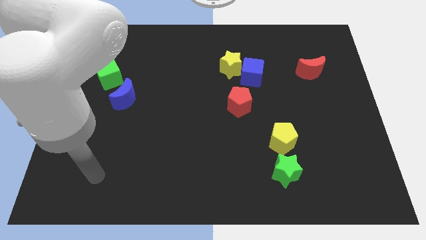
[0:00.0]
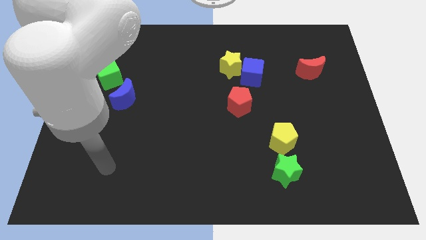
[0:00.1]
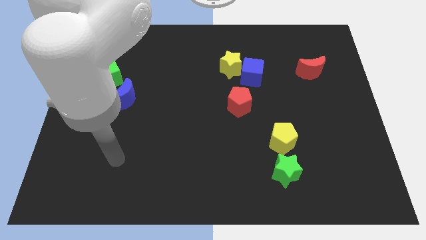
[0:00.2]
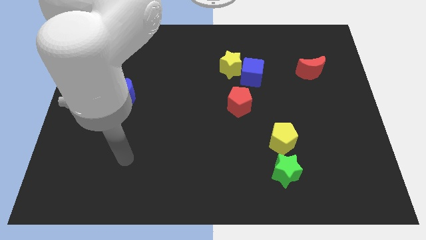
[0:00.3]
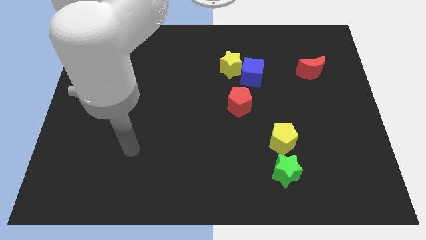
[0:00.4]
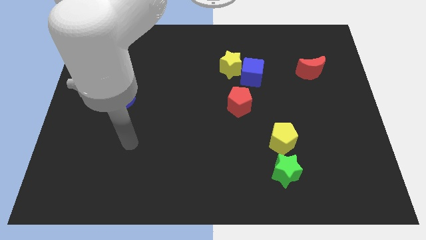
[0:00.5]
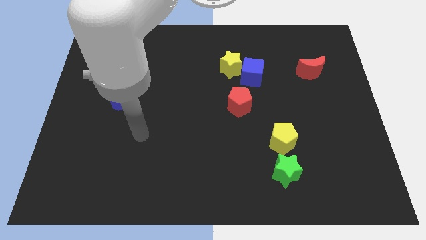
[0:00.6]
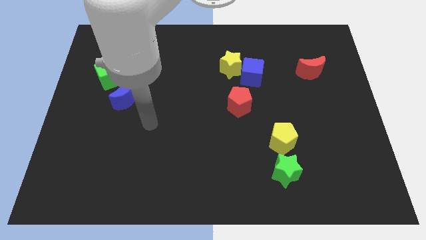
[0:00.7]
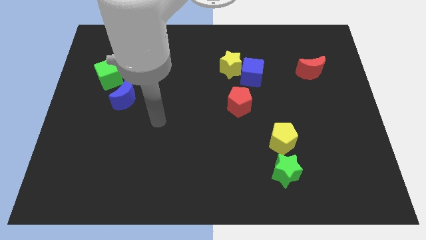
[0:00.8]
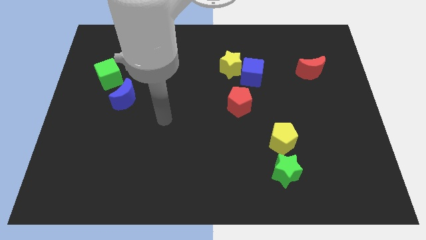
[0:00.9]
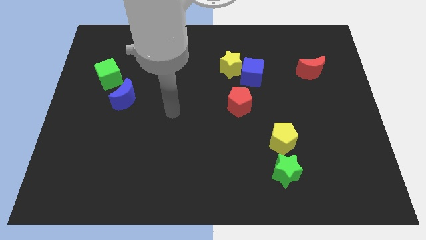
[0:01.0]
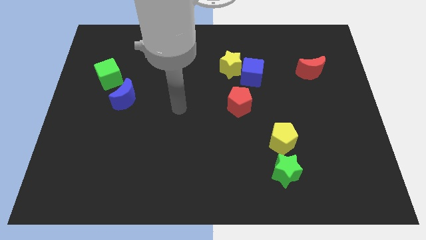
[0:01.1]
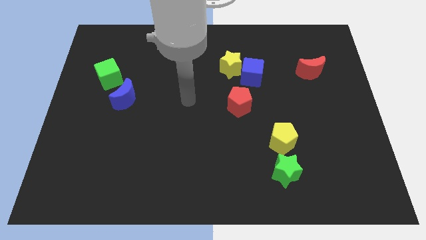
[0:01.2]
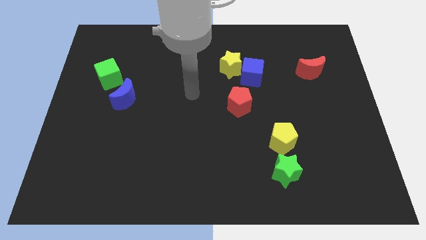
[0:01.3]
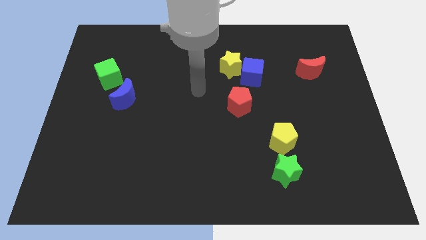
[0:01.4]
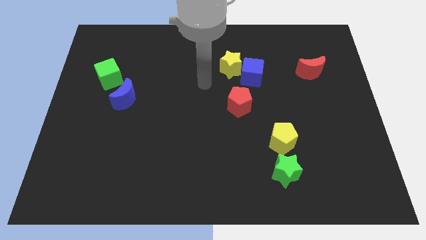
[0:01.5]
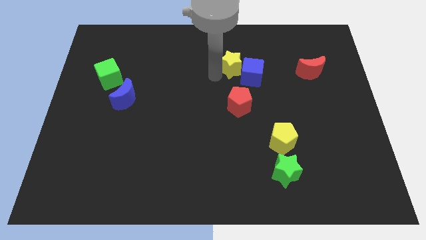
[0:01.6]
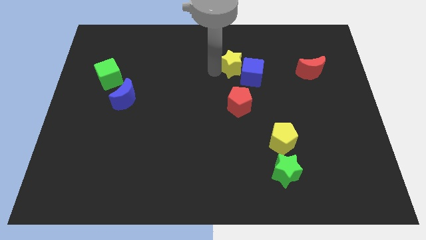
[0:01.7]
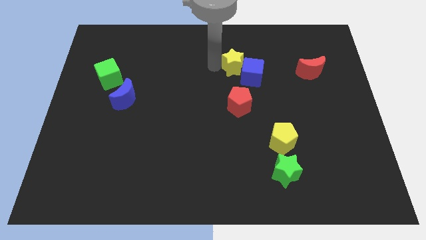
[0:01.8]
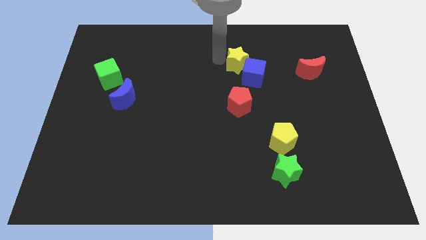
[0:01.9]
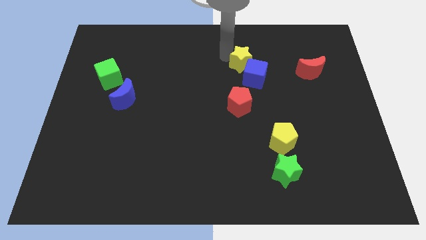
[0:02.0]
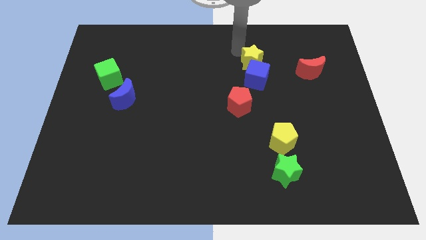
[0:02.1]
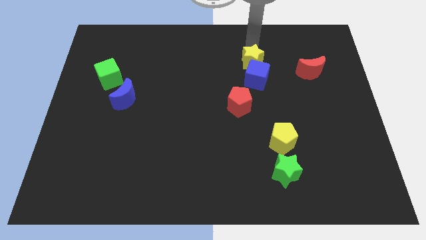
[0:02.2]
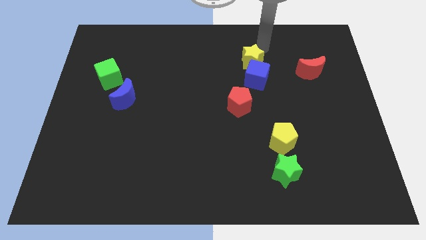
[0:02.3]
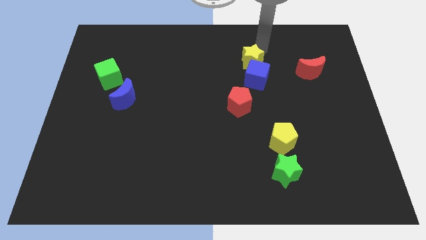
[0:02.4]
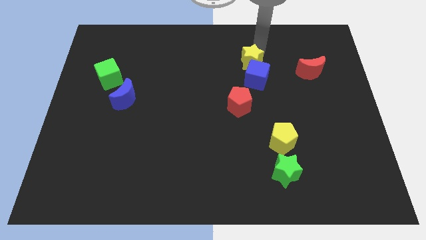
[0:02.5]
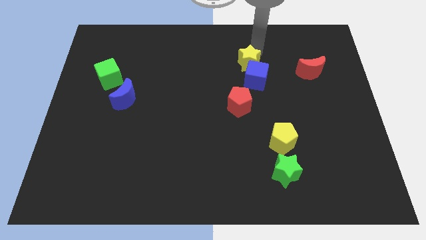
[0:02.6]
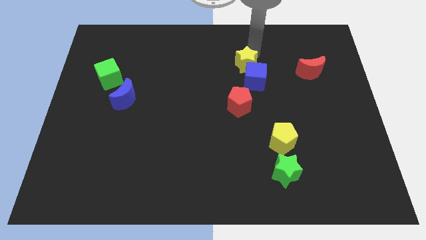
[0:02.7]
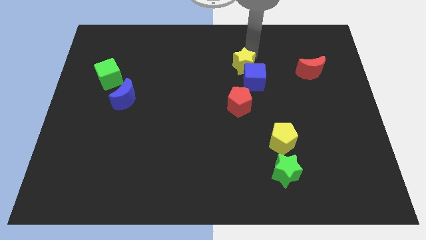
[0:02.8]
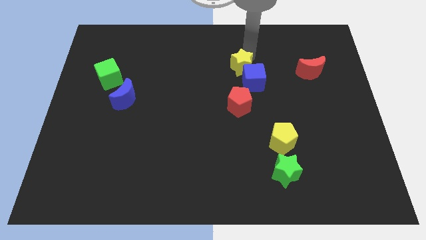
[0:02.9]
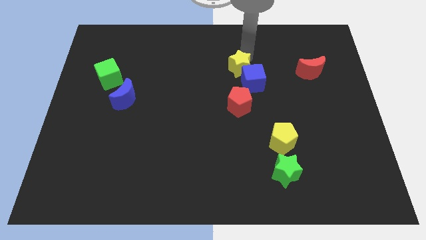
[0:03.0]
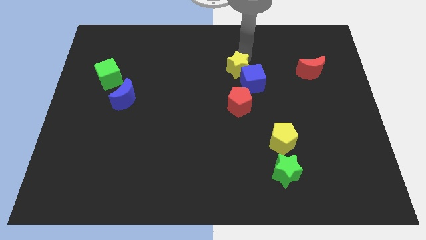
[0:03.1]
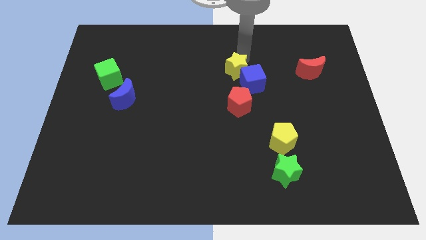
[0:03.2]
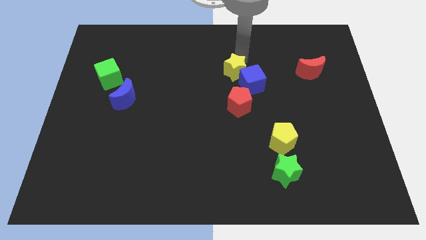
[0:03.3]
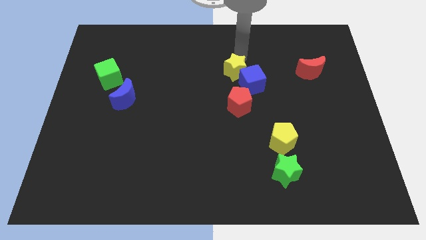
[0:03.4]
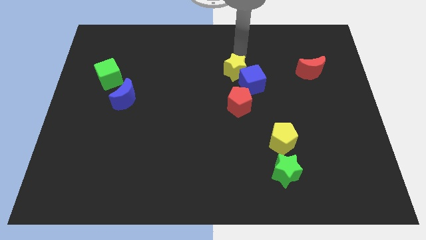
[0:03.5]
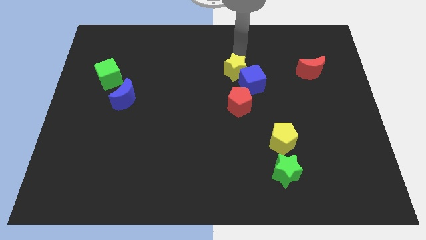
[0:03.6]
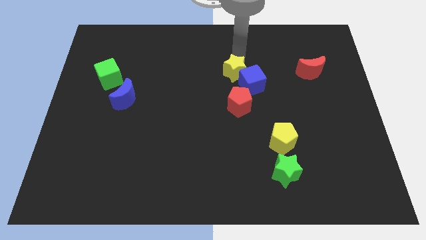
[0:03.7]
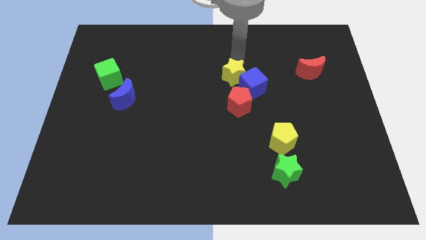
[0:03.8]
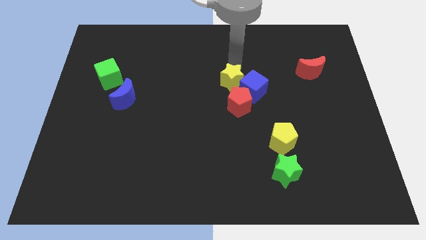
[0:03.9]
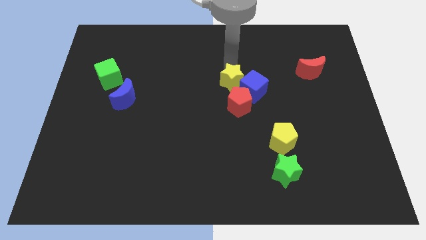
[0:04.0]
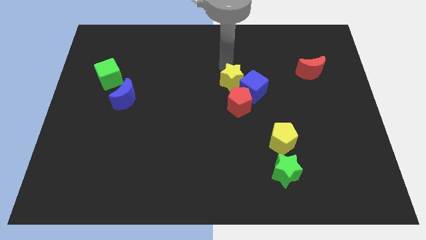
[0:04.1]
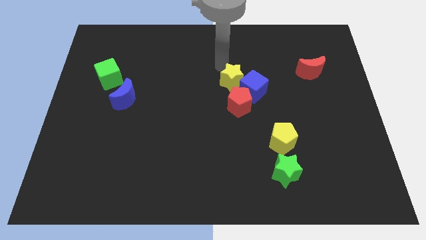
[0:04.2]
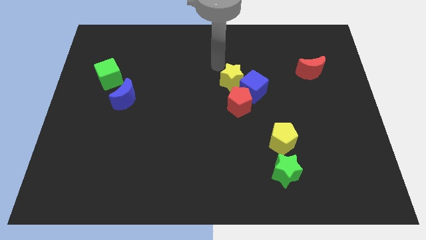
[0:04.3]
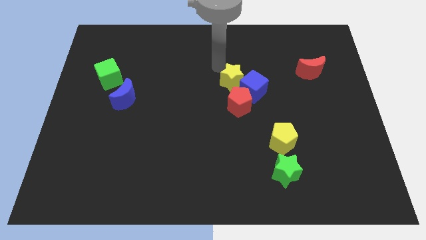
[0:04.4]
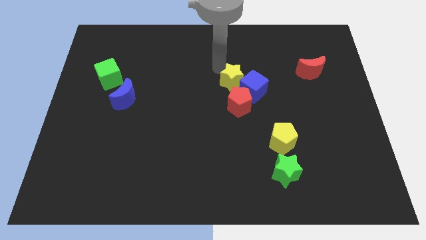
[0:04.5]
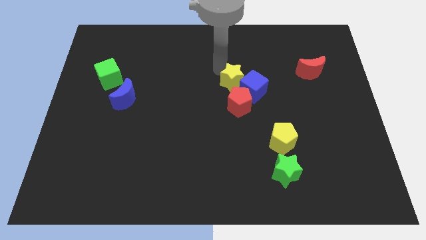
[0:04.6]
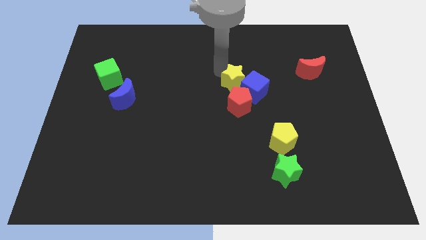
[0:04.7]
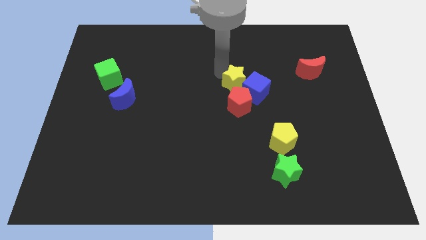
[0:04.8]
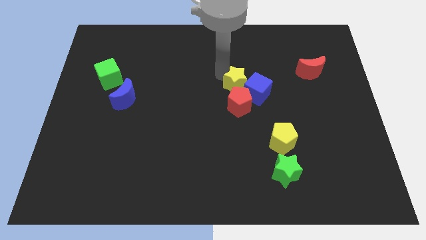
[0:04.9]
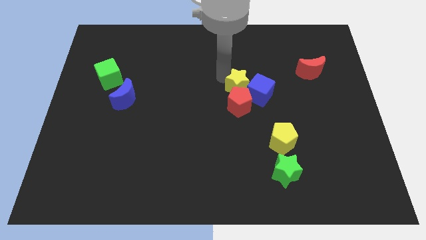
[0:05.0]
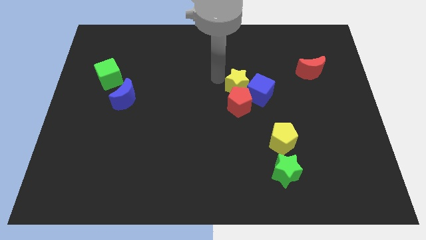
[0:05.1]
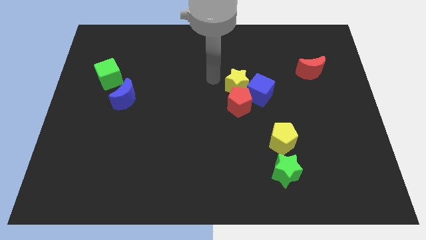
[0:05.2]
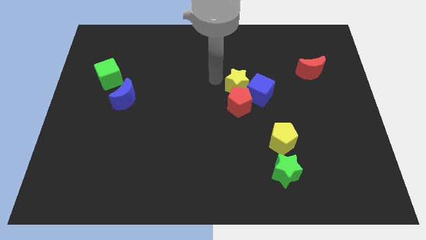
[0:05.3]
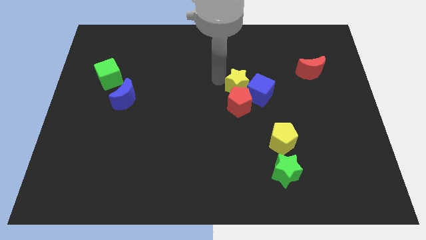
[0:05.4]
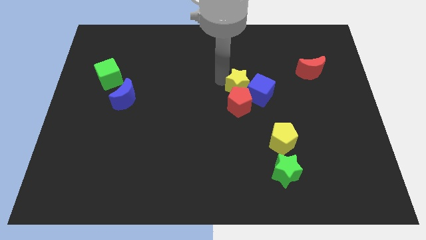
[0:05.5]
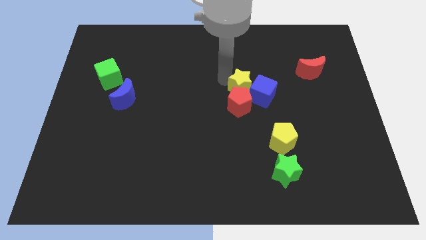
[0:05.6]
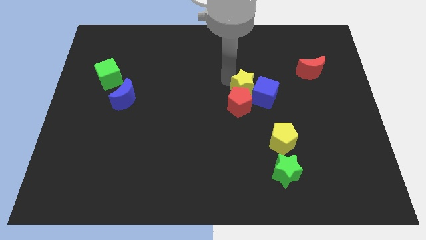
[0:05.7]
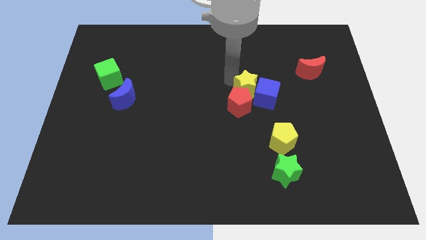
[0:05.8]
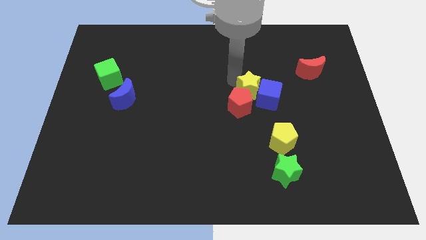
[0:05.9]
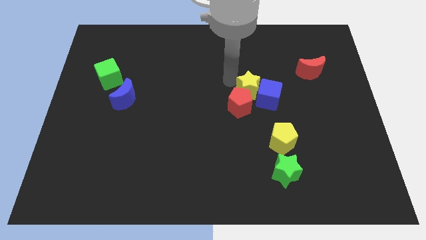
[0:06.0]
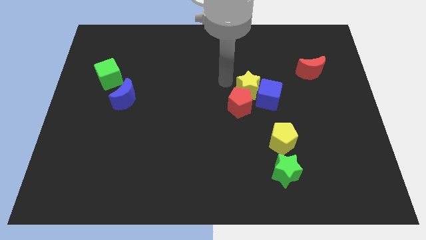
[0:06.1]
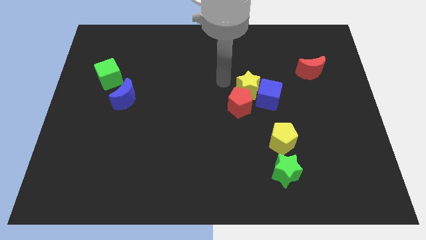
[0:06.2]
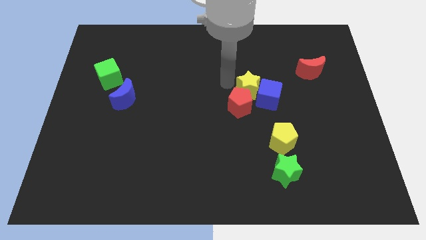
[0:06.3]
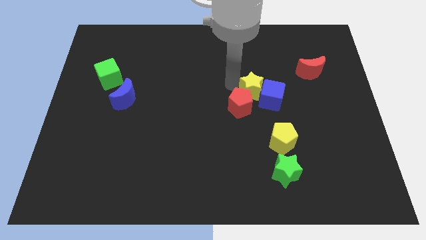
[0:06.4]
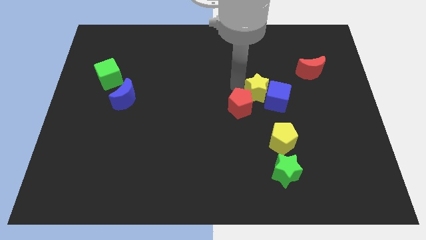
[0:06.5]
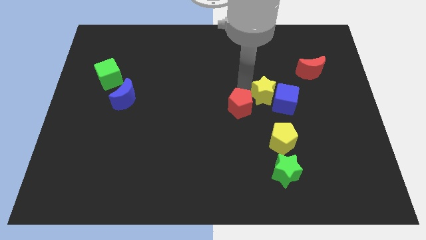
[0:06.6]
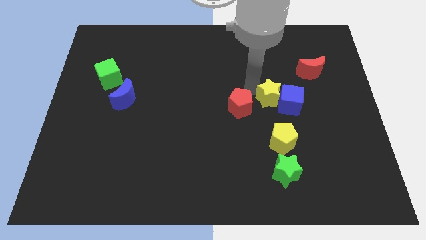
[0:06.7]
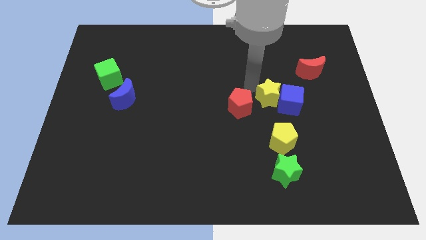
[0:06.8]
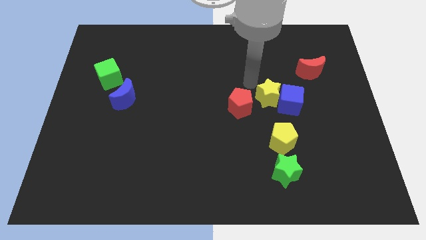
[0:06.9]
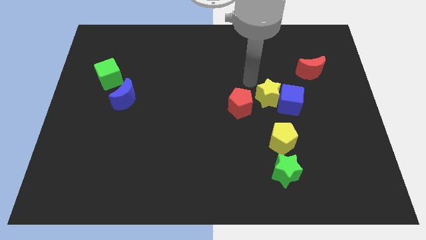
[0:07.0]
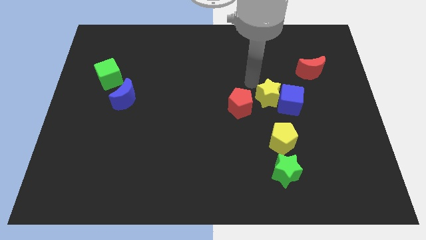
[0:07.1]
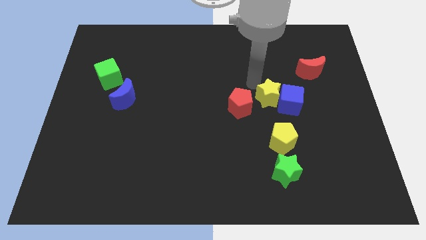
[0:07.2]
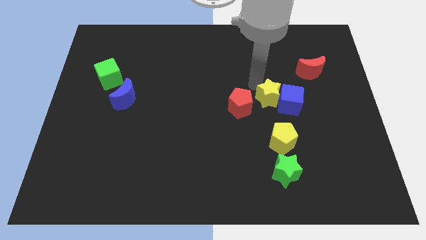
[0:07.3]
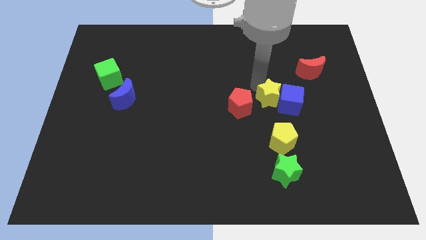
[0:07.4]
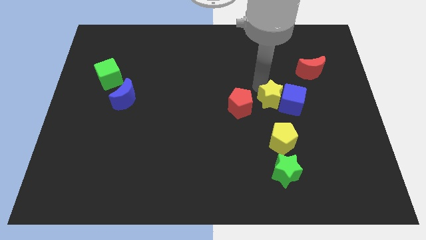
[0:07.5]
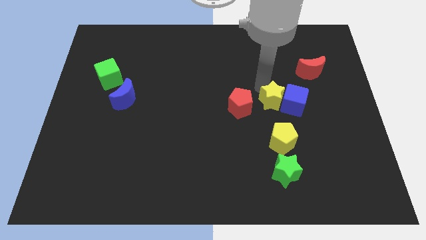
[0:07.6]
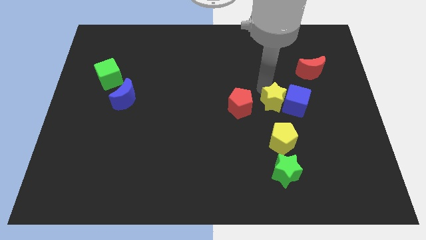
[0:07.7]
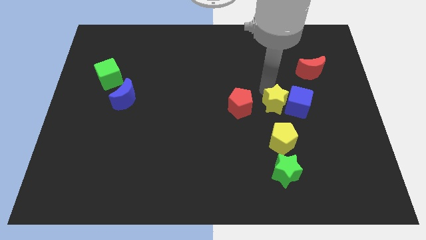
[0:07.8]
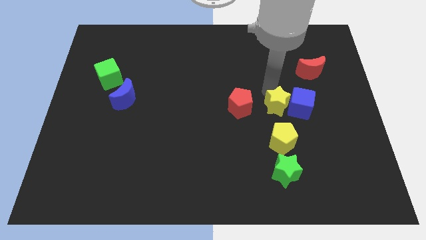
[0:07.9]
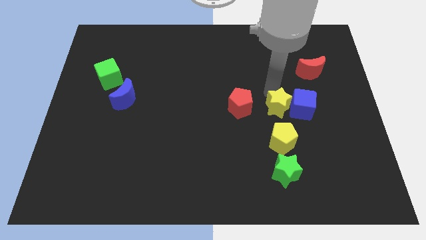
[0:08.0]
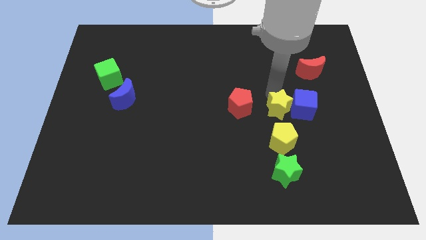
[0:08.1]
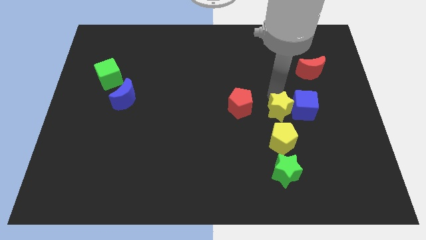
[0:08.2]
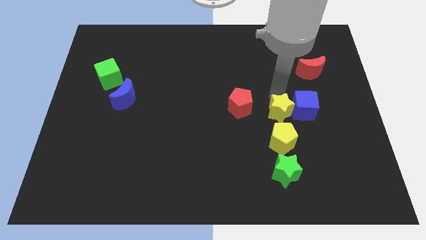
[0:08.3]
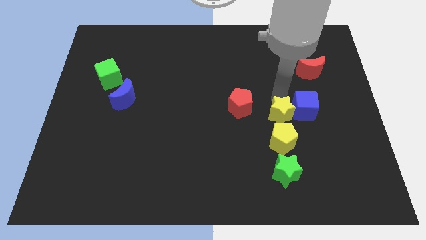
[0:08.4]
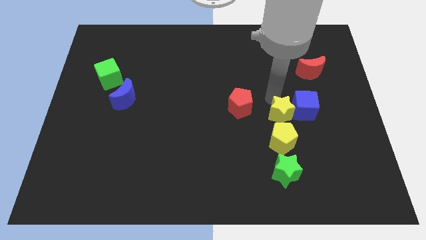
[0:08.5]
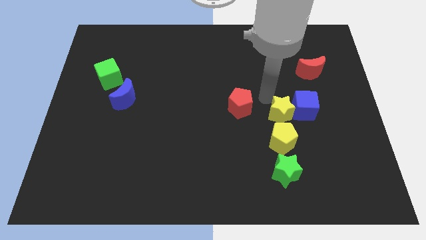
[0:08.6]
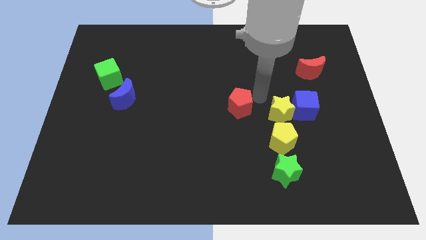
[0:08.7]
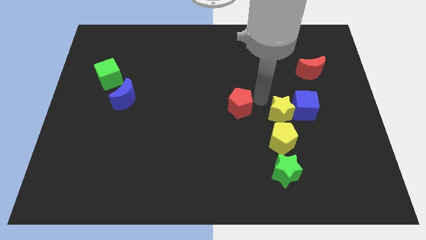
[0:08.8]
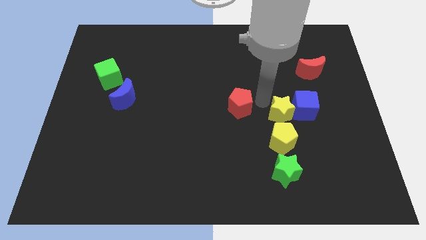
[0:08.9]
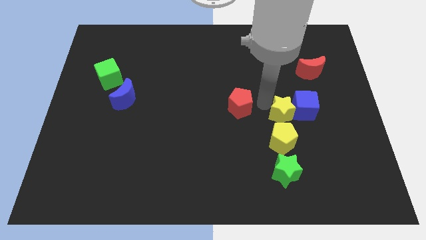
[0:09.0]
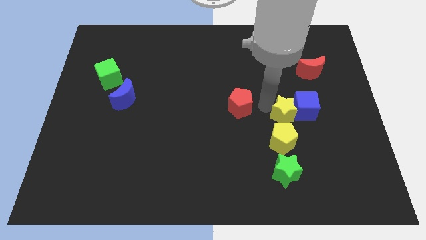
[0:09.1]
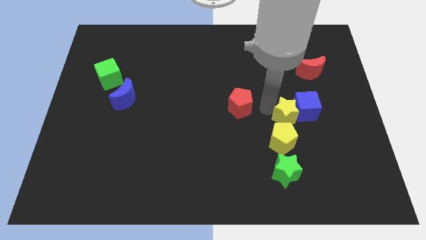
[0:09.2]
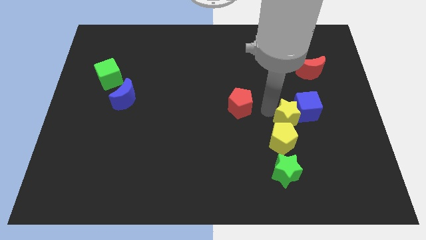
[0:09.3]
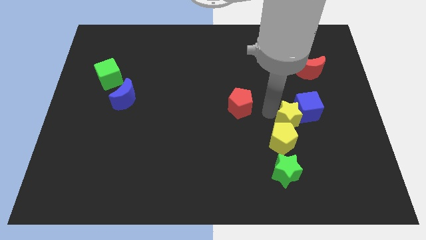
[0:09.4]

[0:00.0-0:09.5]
move the yellow star downwards and right diagonally
